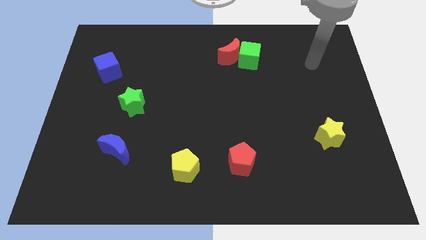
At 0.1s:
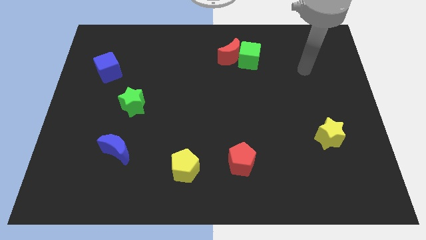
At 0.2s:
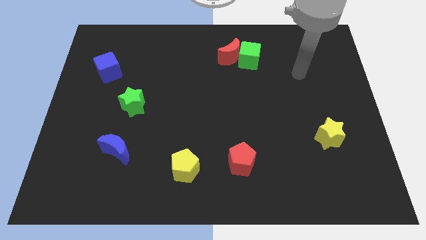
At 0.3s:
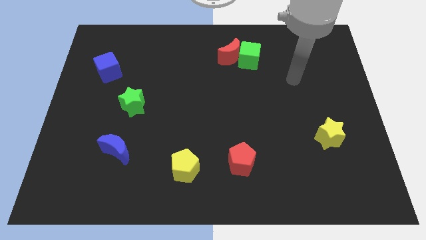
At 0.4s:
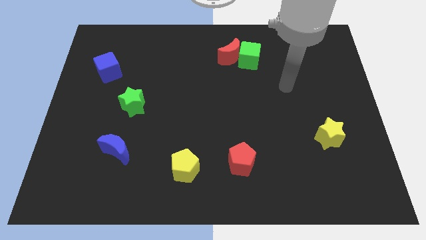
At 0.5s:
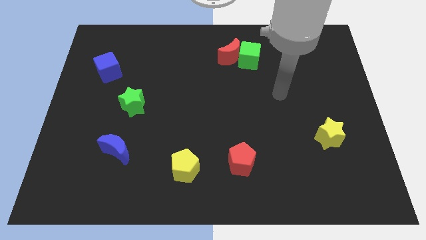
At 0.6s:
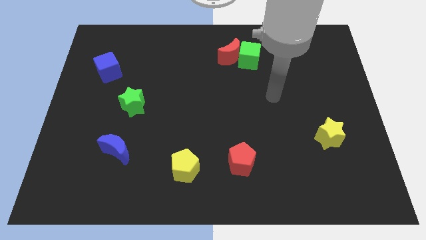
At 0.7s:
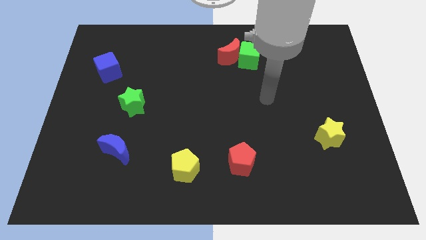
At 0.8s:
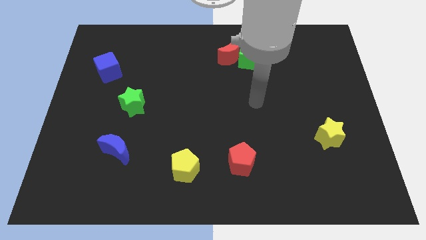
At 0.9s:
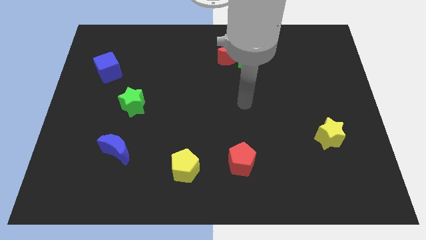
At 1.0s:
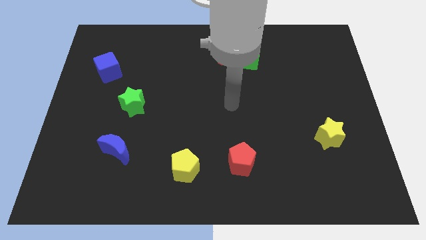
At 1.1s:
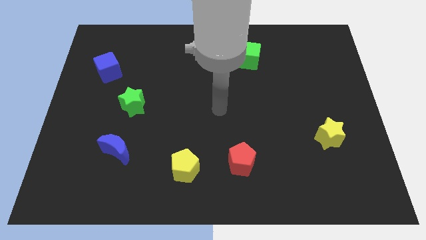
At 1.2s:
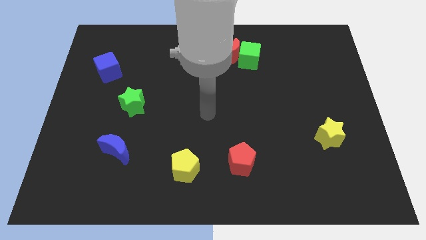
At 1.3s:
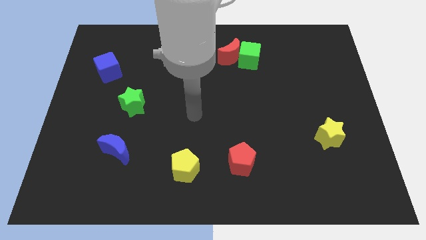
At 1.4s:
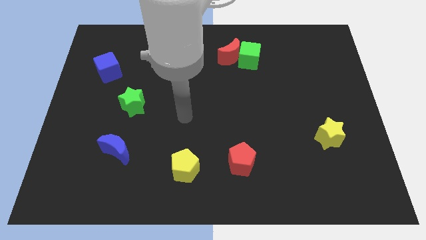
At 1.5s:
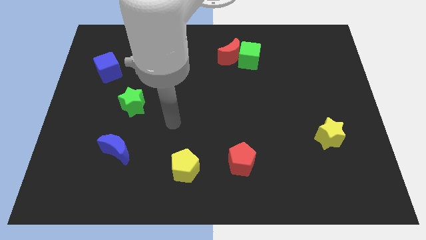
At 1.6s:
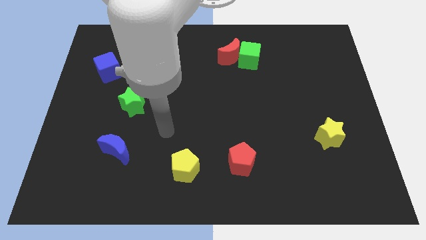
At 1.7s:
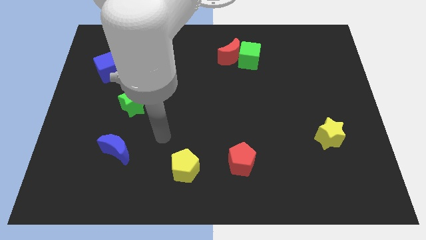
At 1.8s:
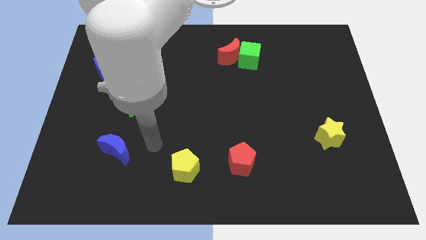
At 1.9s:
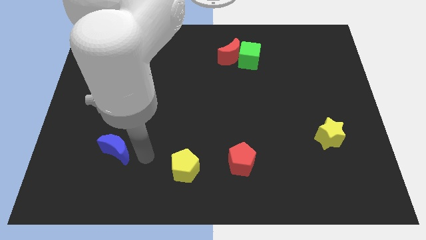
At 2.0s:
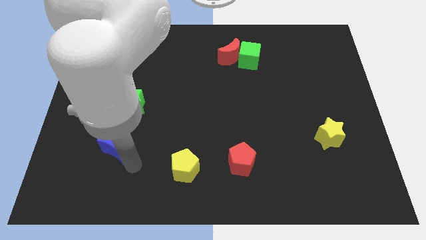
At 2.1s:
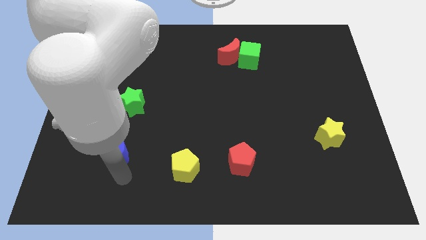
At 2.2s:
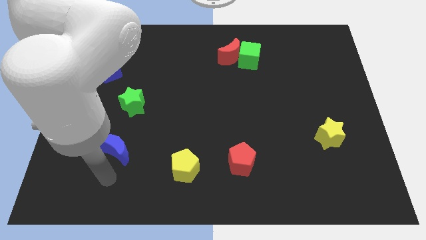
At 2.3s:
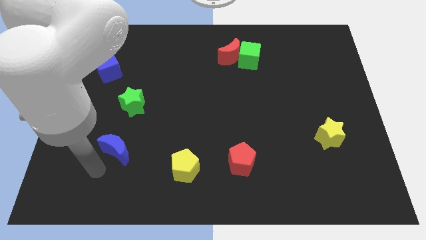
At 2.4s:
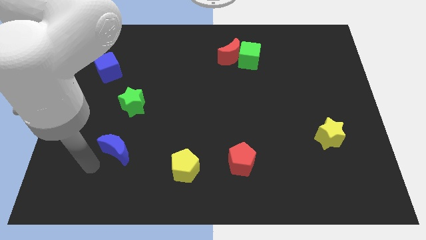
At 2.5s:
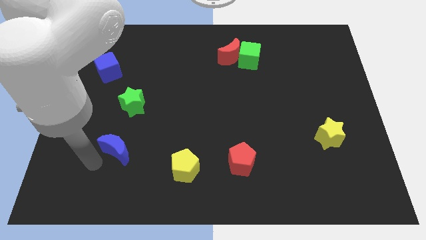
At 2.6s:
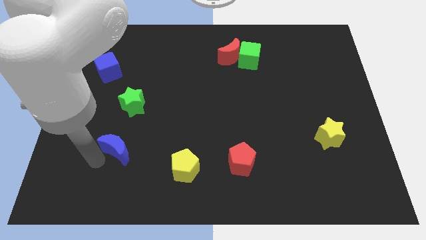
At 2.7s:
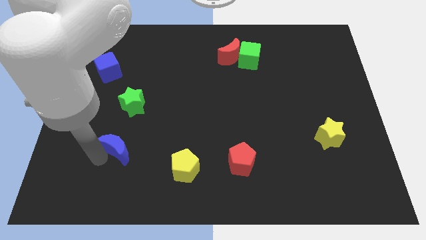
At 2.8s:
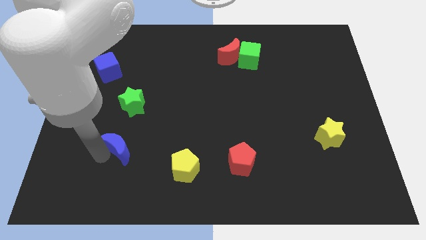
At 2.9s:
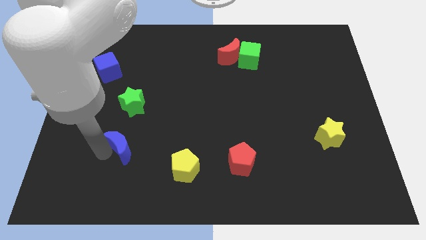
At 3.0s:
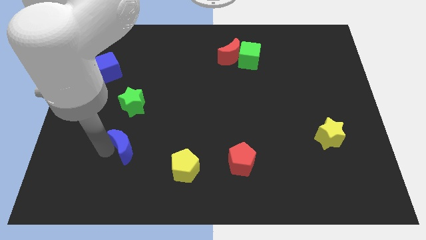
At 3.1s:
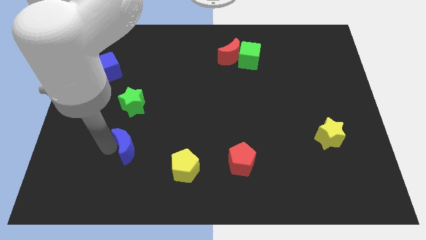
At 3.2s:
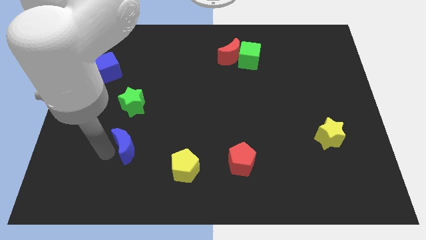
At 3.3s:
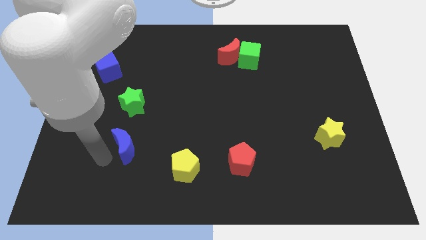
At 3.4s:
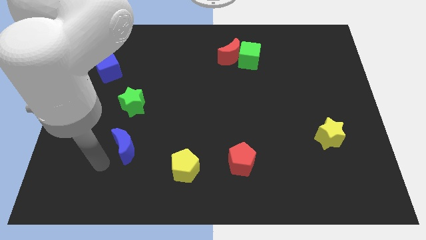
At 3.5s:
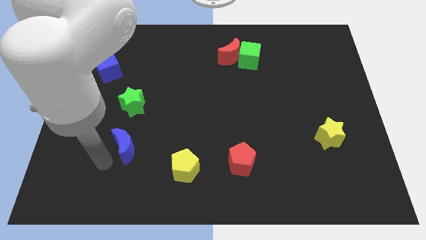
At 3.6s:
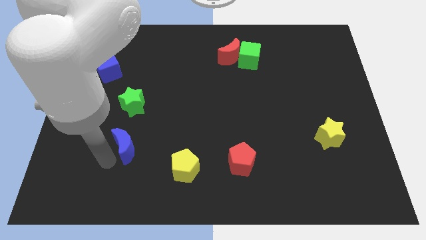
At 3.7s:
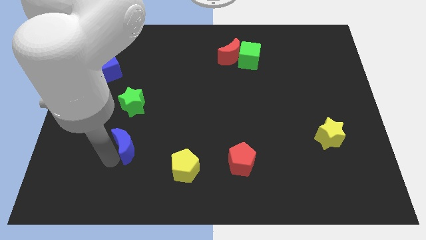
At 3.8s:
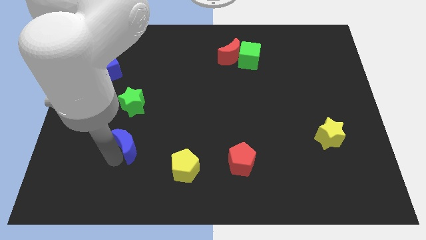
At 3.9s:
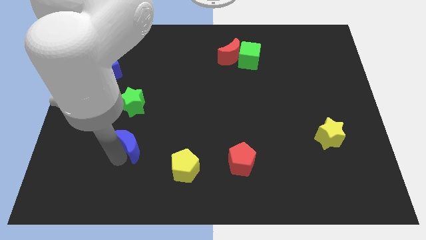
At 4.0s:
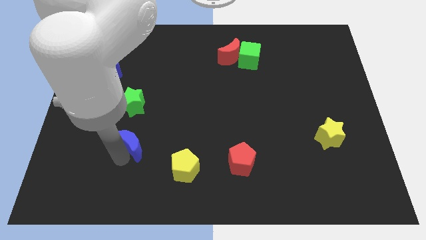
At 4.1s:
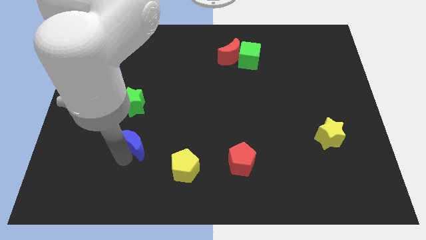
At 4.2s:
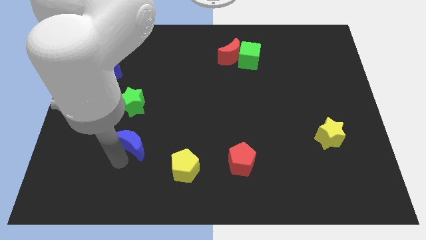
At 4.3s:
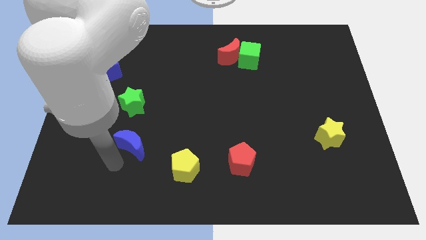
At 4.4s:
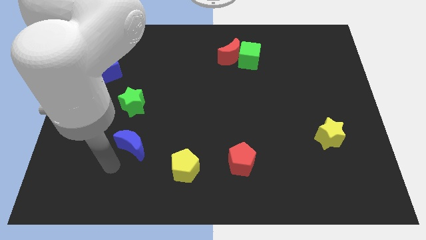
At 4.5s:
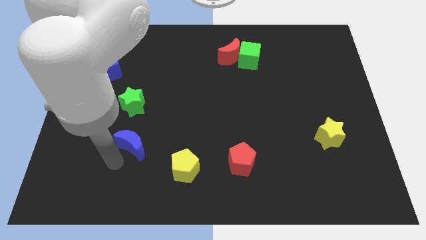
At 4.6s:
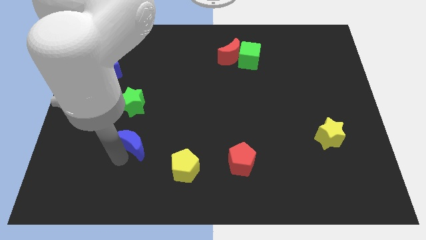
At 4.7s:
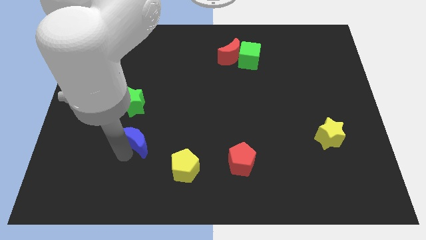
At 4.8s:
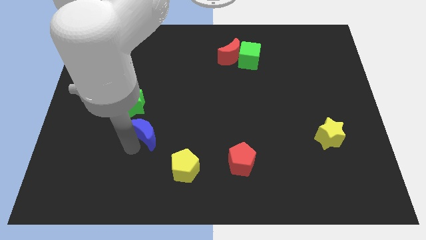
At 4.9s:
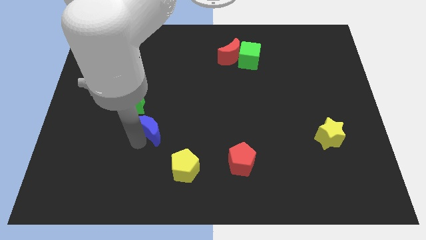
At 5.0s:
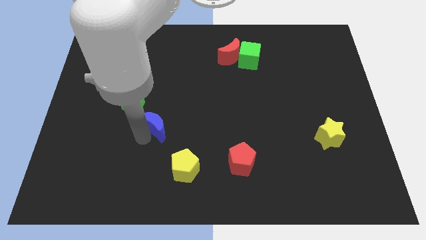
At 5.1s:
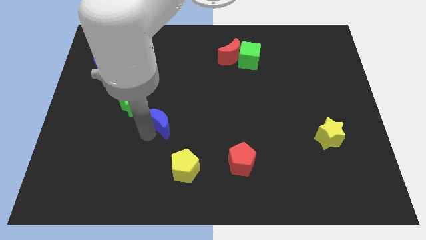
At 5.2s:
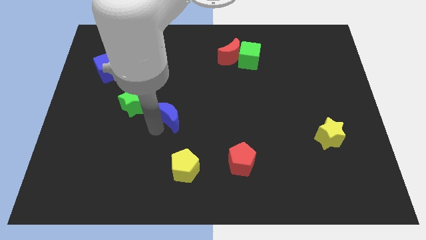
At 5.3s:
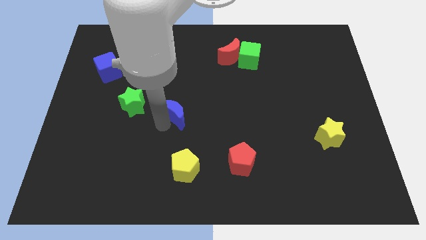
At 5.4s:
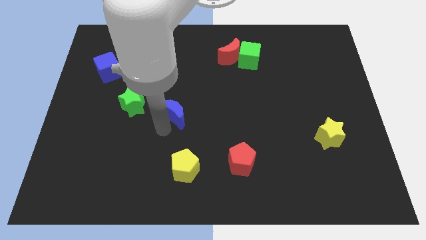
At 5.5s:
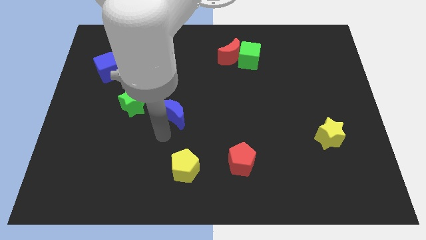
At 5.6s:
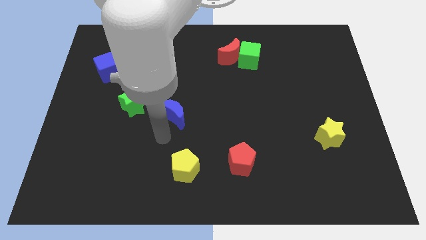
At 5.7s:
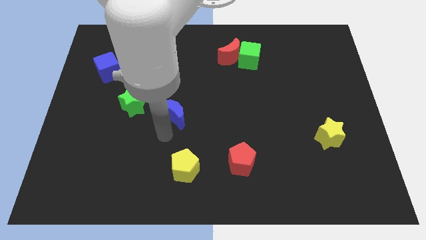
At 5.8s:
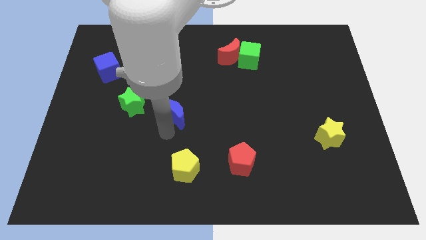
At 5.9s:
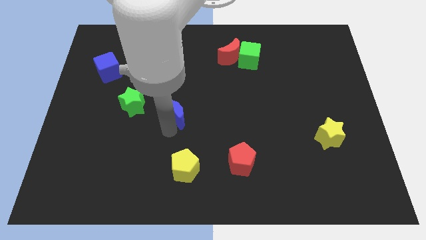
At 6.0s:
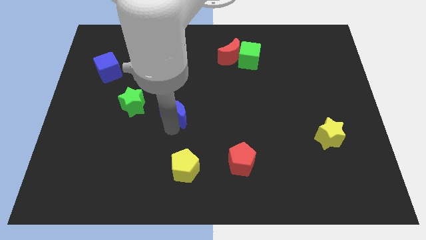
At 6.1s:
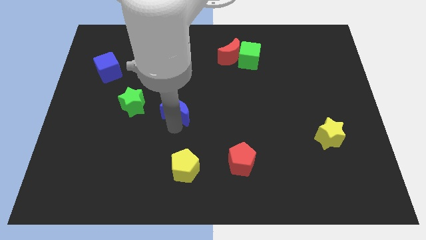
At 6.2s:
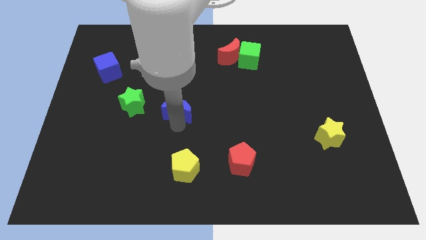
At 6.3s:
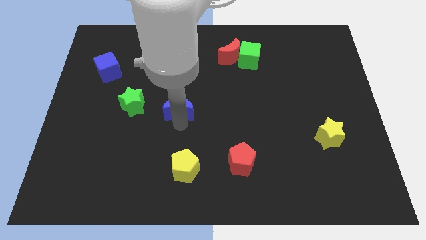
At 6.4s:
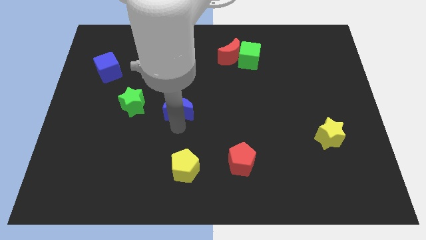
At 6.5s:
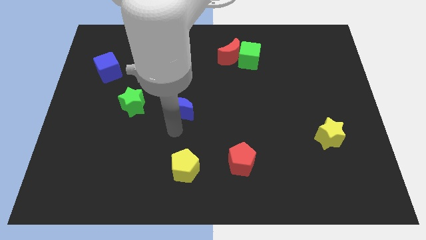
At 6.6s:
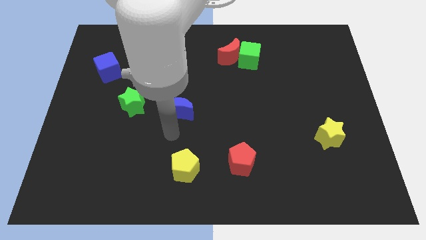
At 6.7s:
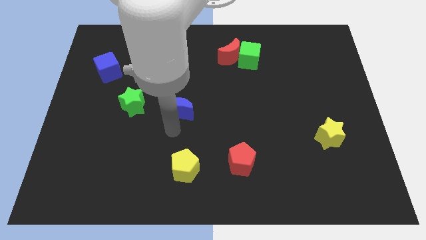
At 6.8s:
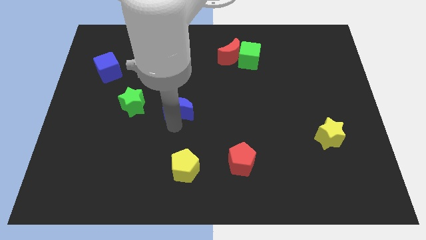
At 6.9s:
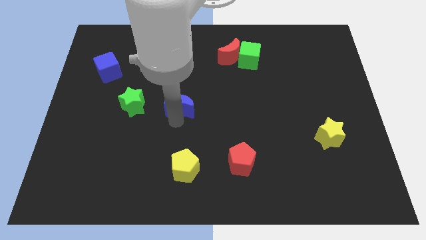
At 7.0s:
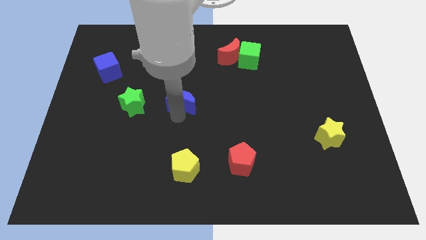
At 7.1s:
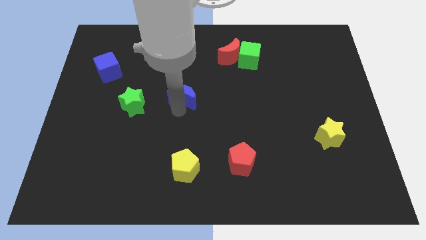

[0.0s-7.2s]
move the blue moon upwards and then to the right

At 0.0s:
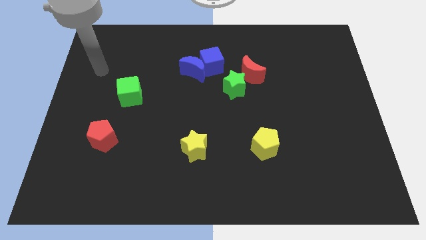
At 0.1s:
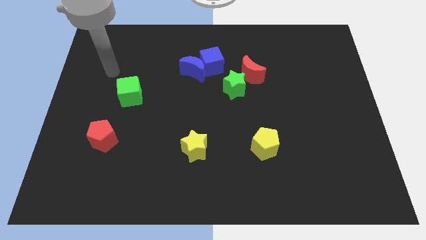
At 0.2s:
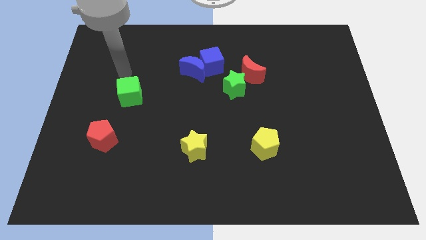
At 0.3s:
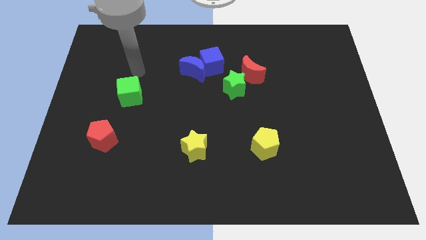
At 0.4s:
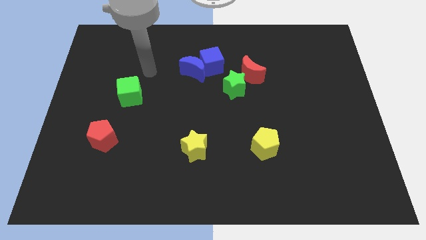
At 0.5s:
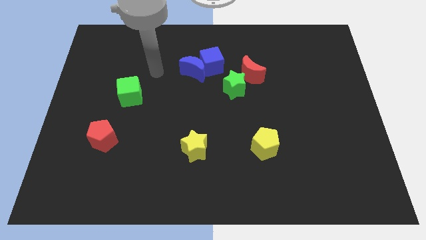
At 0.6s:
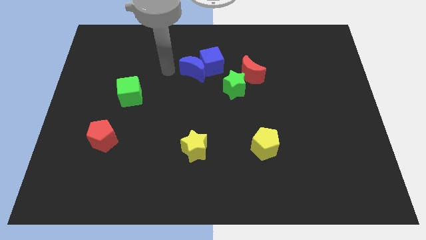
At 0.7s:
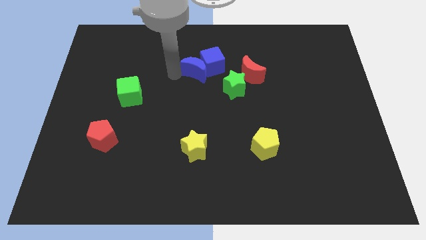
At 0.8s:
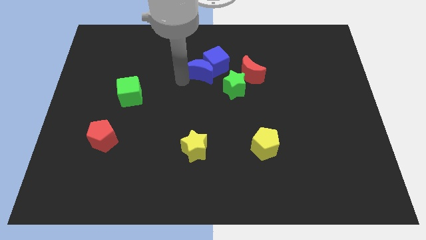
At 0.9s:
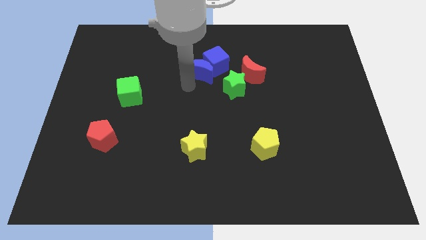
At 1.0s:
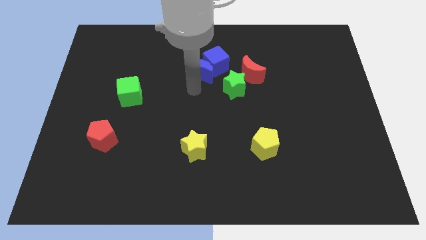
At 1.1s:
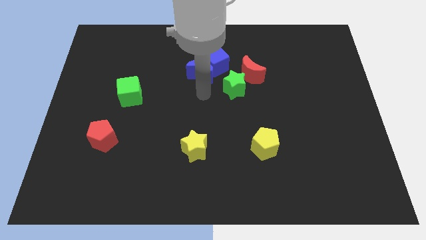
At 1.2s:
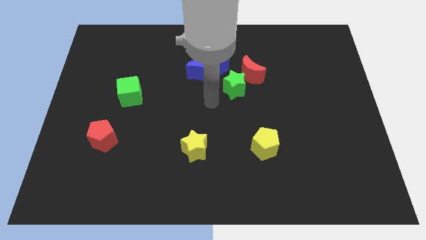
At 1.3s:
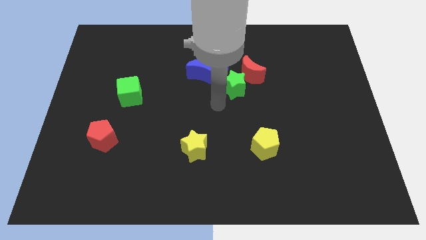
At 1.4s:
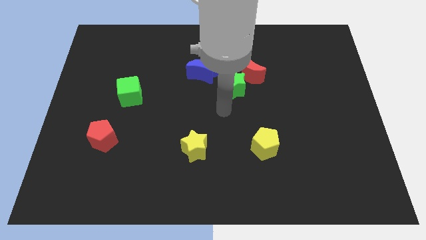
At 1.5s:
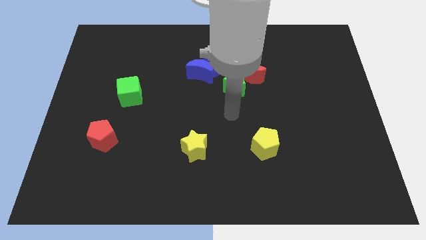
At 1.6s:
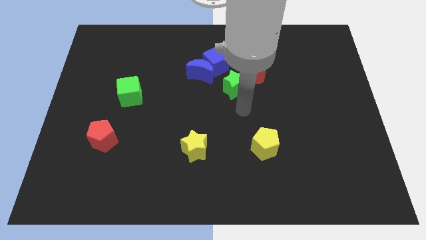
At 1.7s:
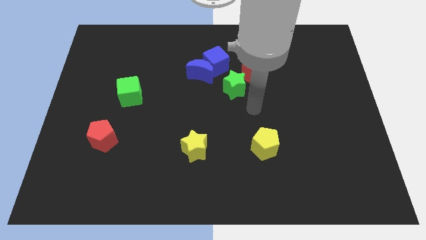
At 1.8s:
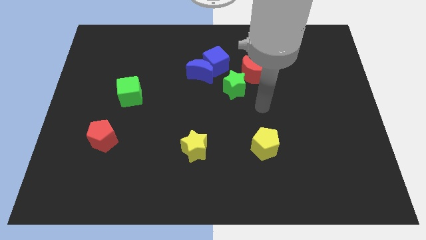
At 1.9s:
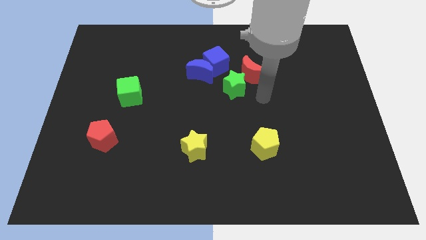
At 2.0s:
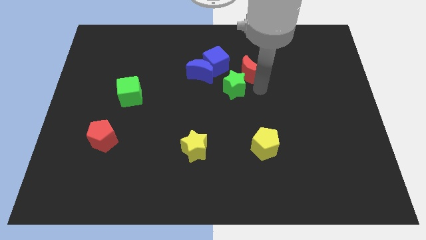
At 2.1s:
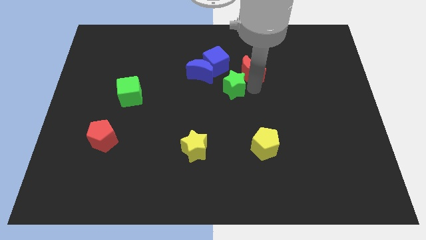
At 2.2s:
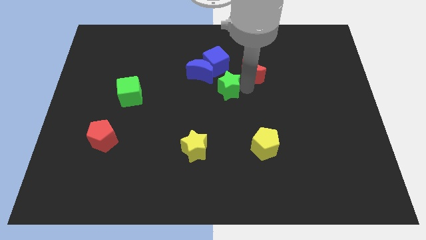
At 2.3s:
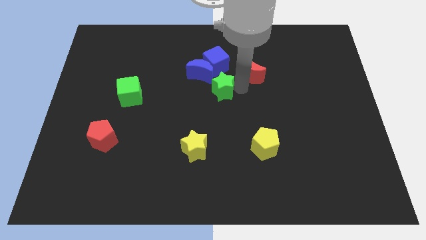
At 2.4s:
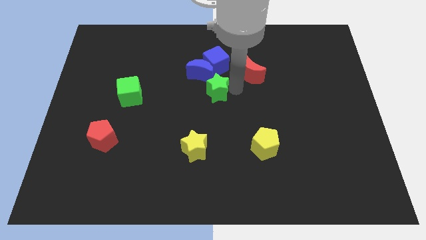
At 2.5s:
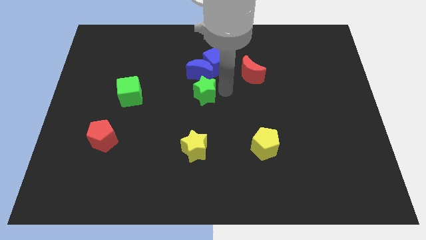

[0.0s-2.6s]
push the green star slightly to the left
